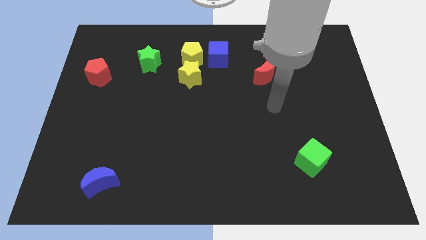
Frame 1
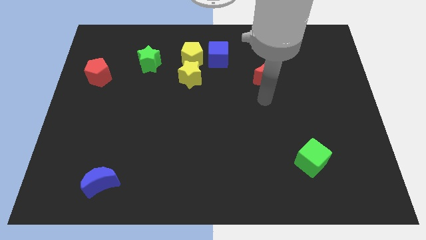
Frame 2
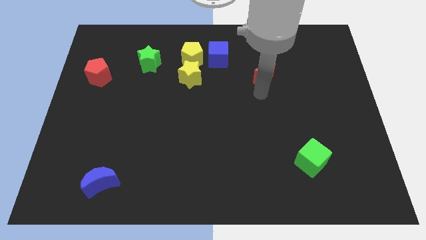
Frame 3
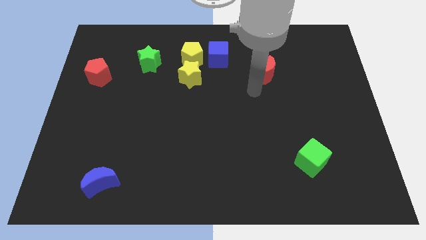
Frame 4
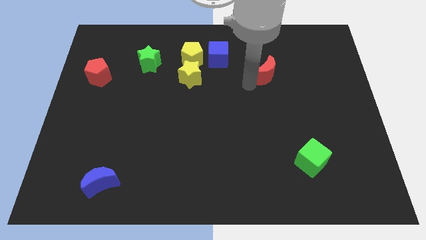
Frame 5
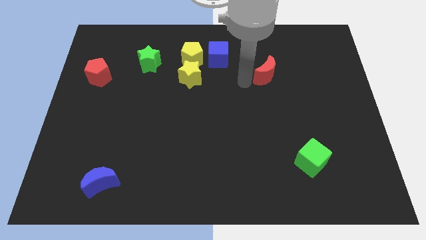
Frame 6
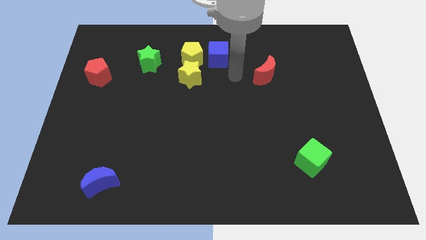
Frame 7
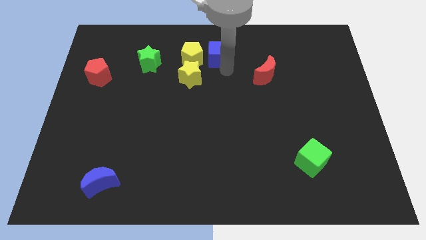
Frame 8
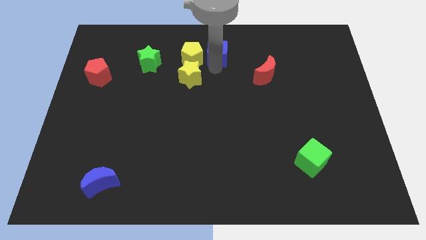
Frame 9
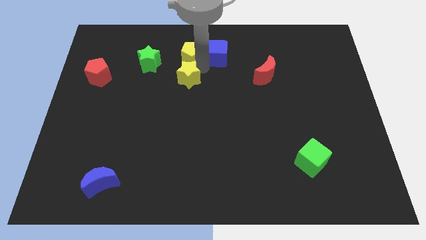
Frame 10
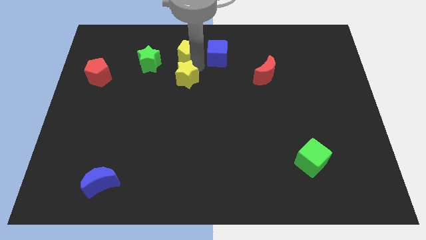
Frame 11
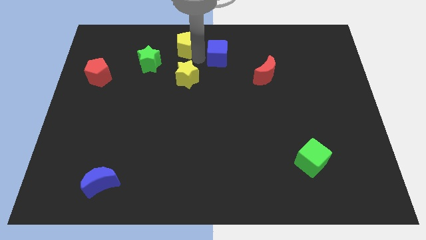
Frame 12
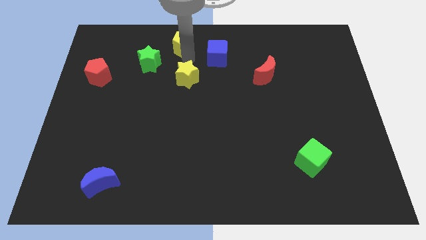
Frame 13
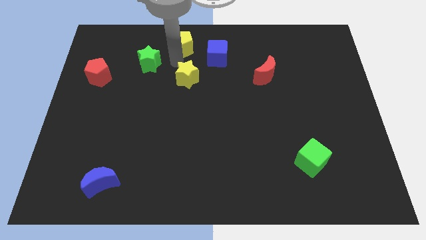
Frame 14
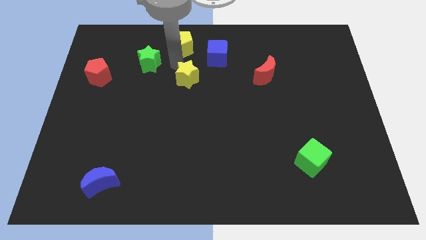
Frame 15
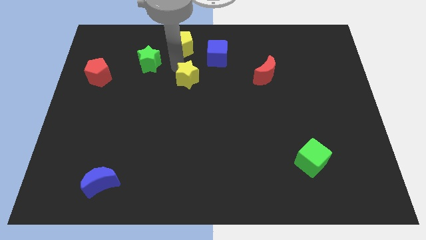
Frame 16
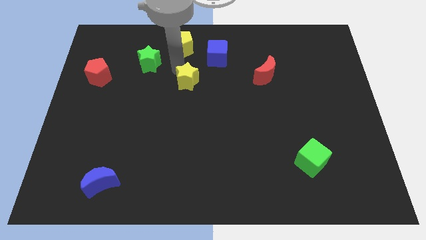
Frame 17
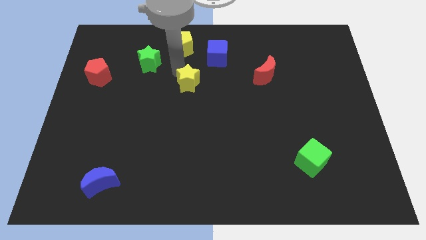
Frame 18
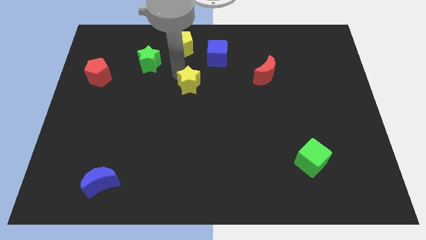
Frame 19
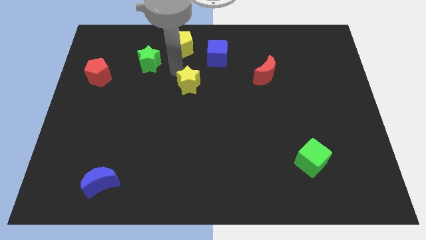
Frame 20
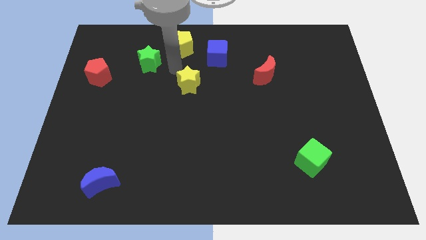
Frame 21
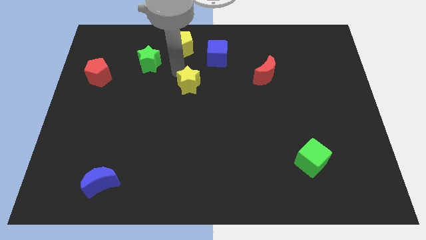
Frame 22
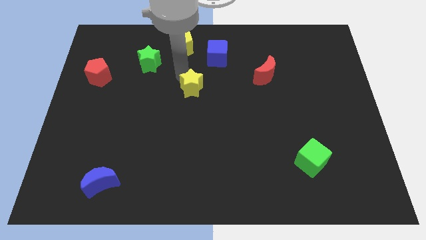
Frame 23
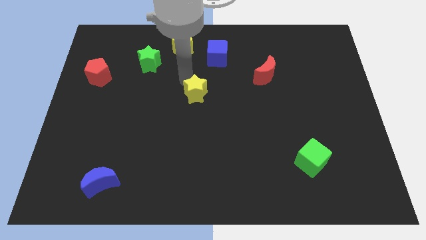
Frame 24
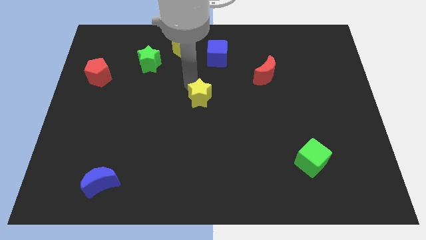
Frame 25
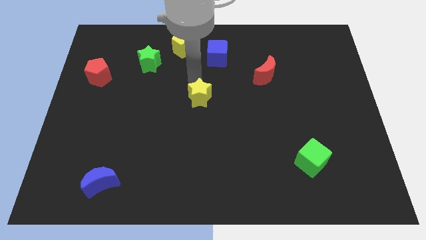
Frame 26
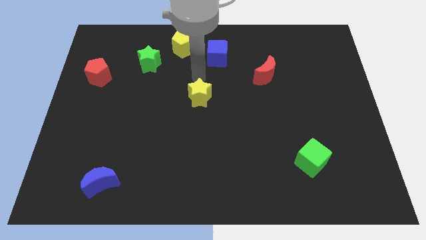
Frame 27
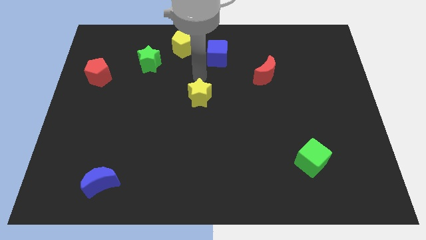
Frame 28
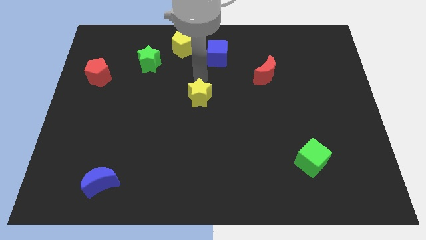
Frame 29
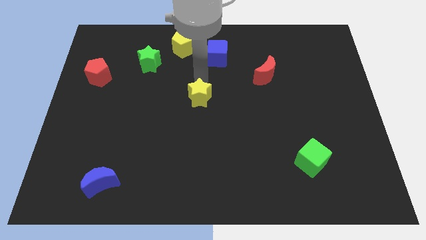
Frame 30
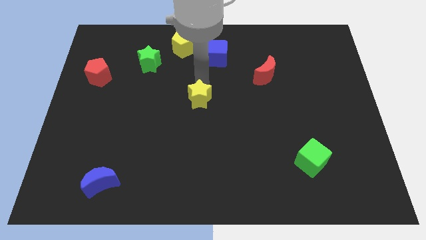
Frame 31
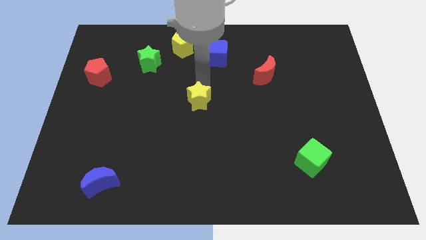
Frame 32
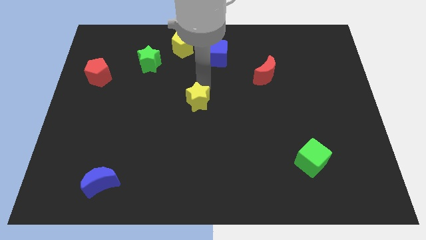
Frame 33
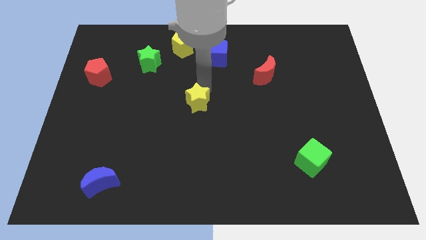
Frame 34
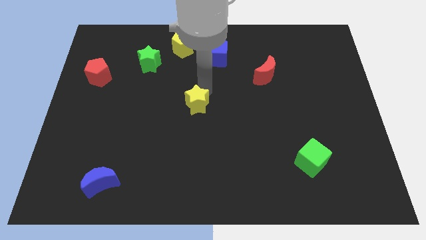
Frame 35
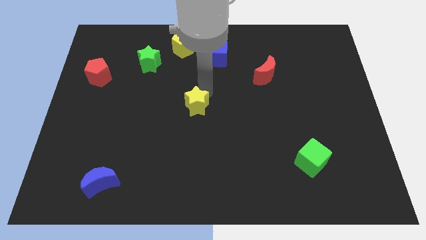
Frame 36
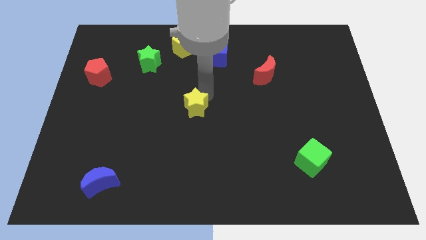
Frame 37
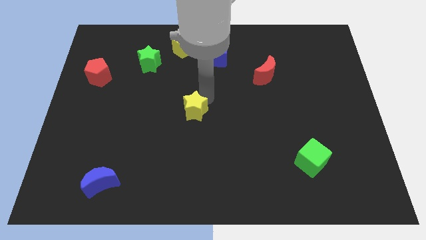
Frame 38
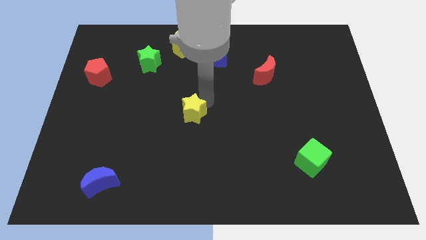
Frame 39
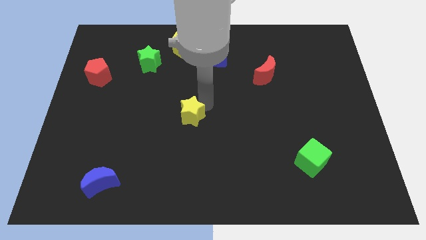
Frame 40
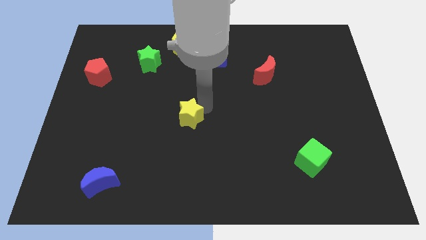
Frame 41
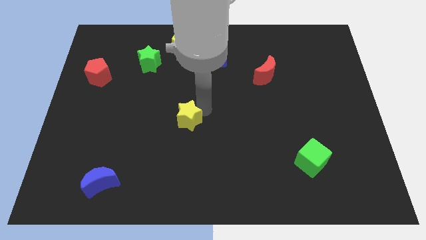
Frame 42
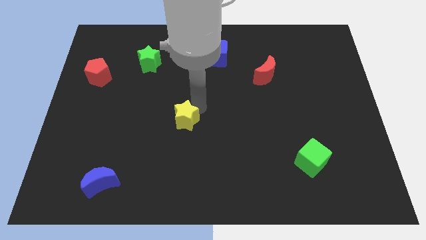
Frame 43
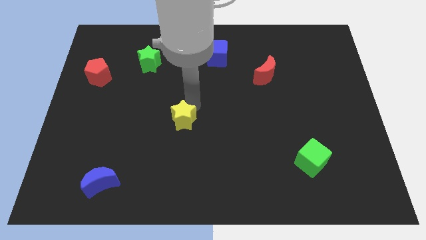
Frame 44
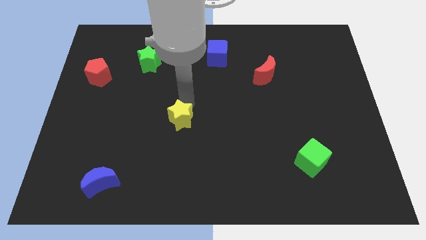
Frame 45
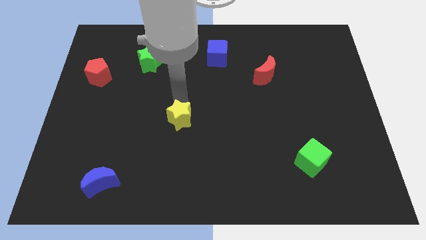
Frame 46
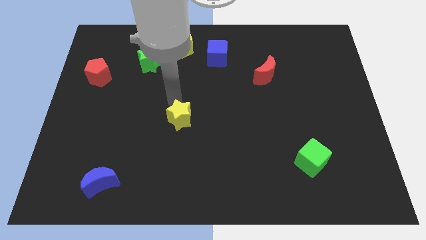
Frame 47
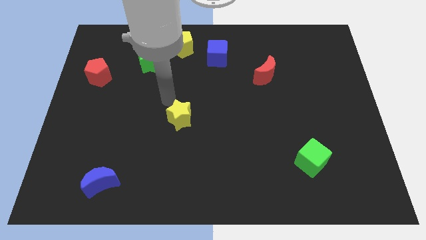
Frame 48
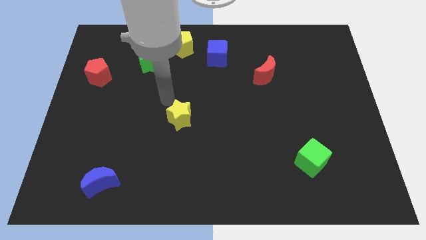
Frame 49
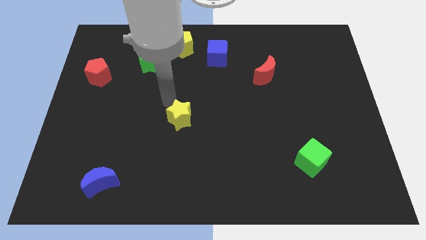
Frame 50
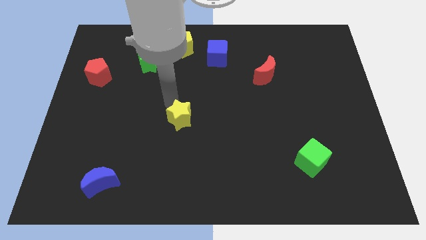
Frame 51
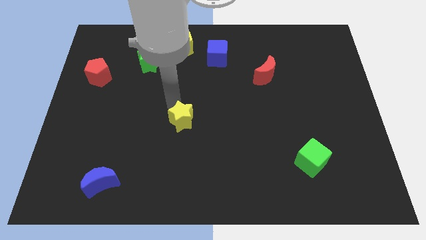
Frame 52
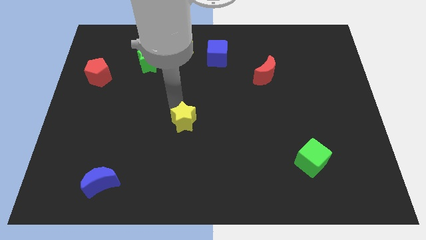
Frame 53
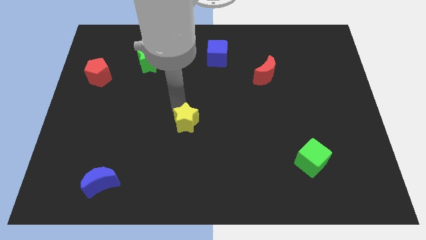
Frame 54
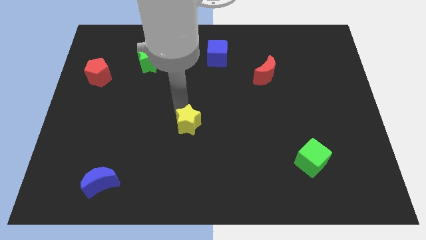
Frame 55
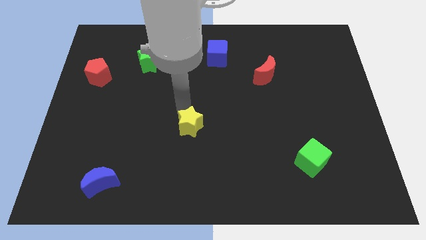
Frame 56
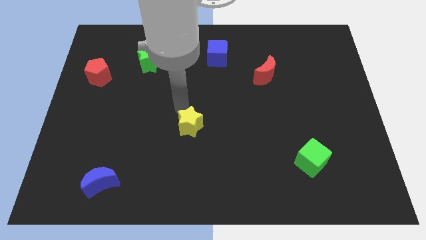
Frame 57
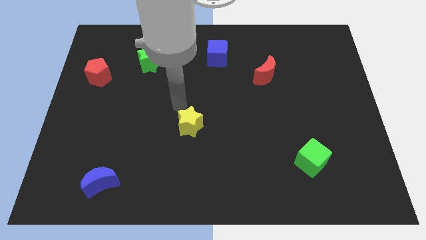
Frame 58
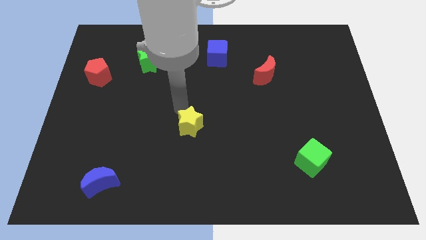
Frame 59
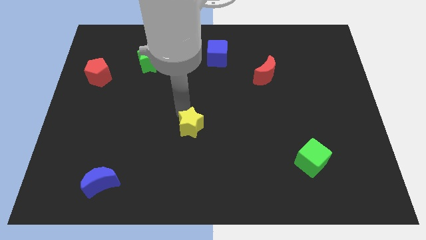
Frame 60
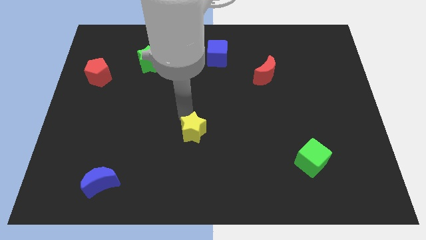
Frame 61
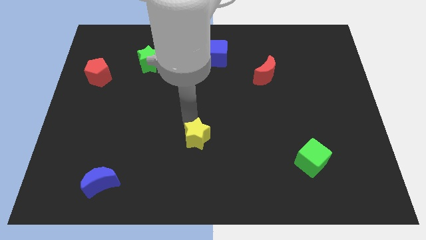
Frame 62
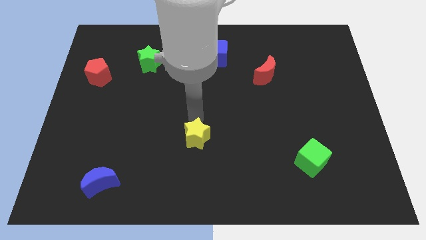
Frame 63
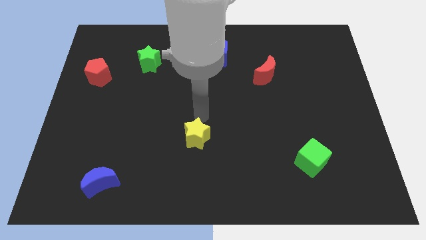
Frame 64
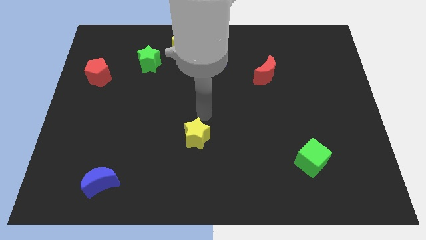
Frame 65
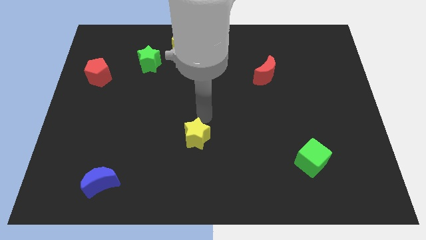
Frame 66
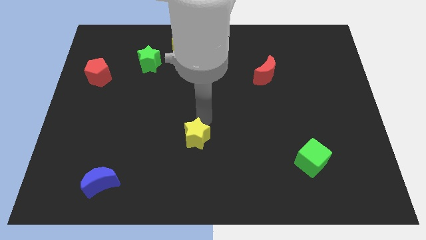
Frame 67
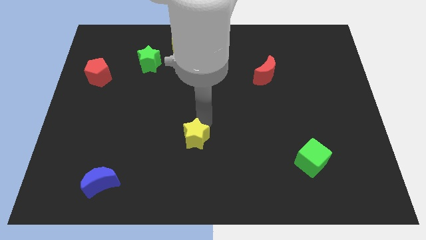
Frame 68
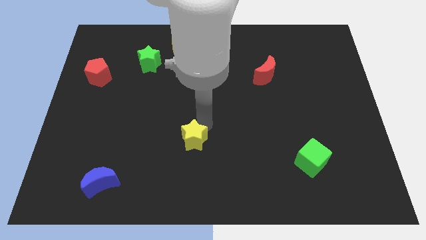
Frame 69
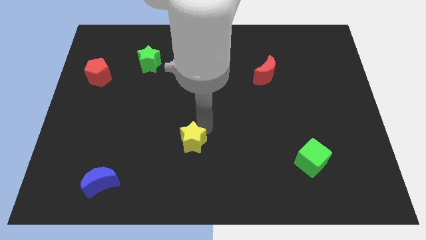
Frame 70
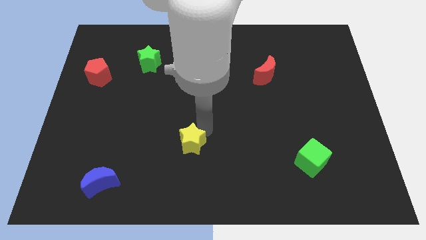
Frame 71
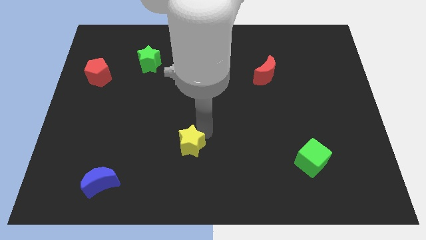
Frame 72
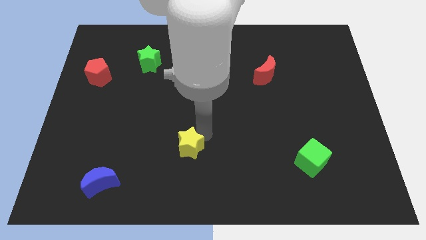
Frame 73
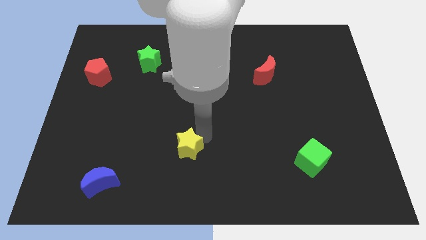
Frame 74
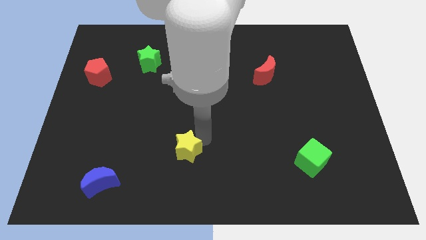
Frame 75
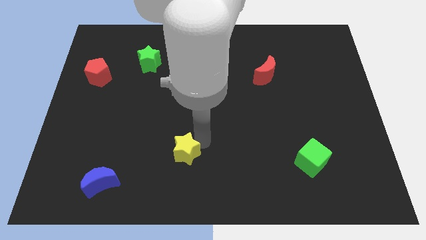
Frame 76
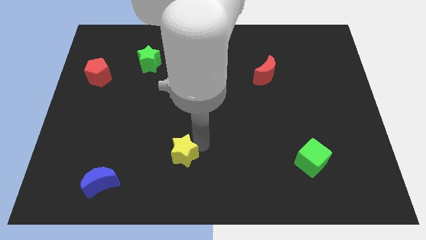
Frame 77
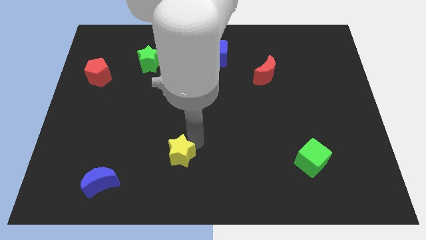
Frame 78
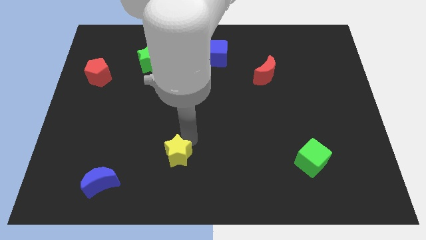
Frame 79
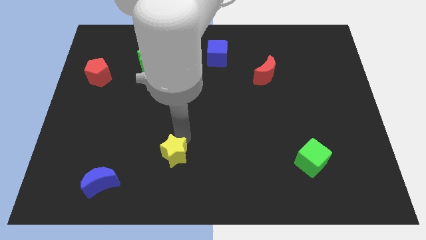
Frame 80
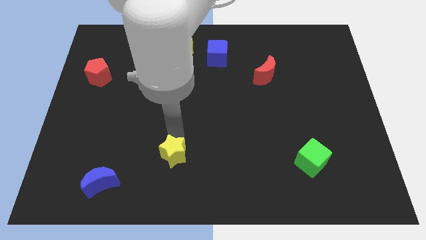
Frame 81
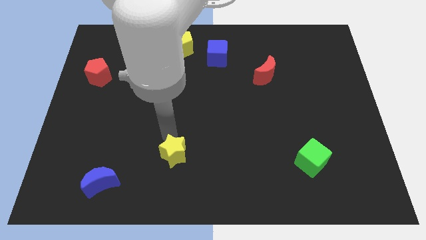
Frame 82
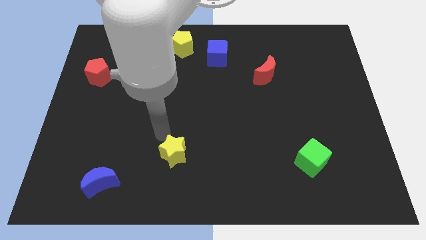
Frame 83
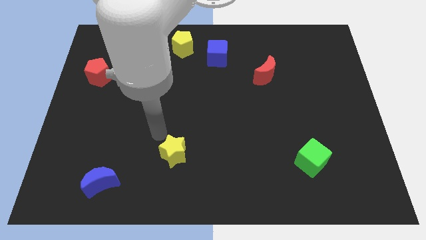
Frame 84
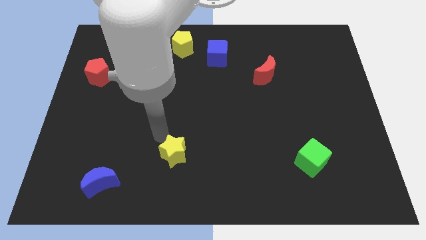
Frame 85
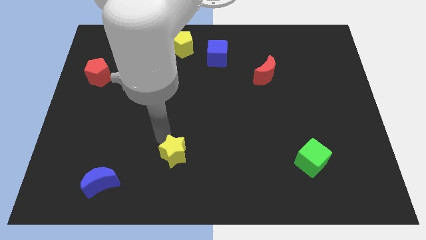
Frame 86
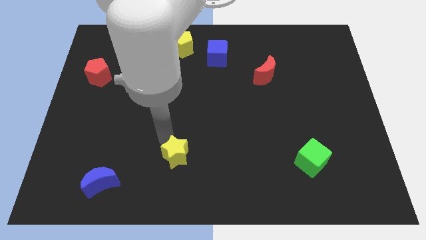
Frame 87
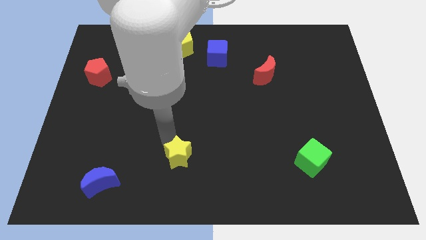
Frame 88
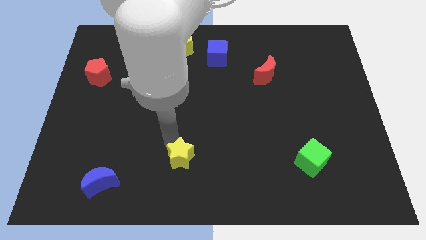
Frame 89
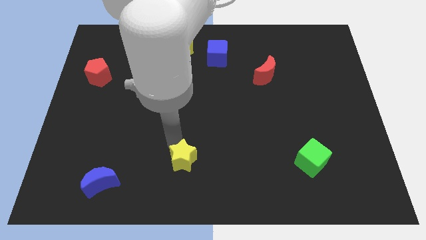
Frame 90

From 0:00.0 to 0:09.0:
slide the yellow star to the bottom side
